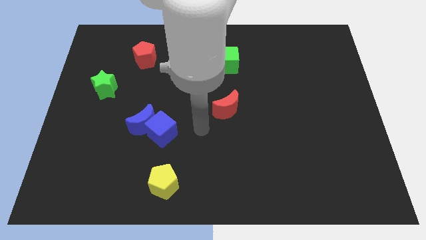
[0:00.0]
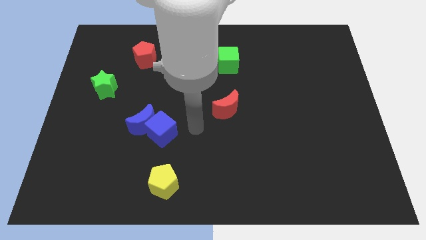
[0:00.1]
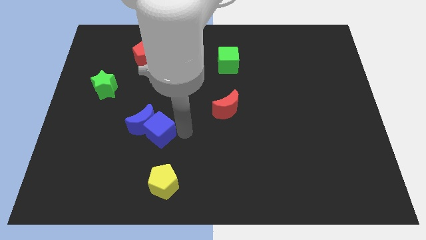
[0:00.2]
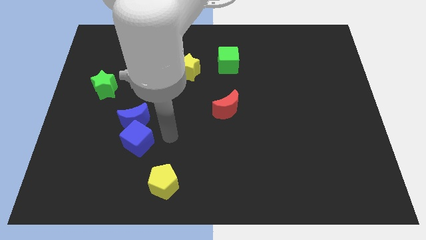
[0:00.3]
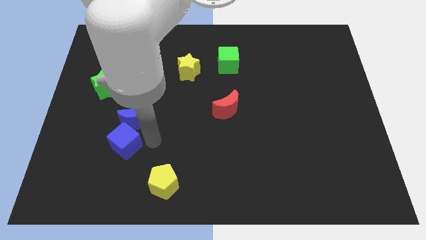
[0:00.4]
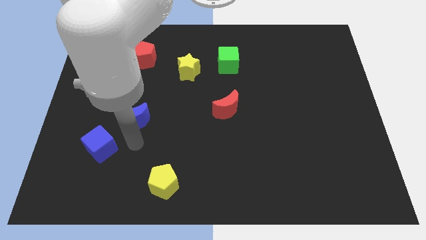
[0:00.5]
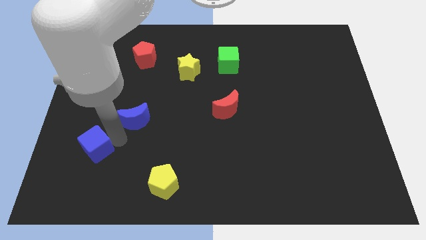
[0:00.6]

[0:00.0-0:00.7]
pull the blue moon apart from the blue cube

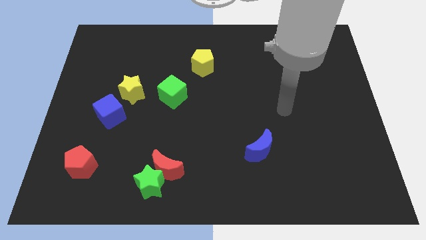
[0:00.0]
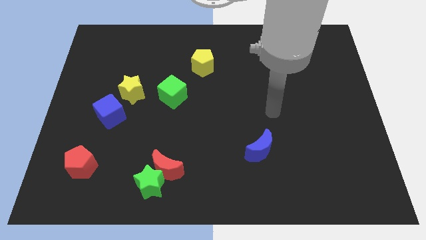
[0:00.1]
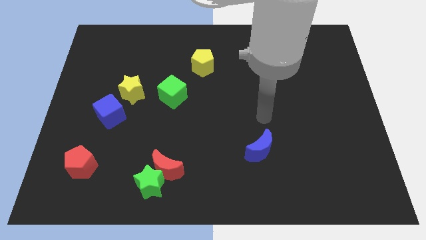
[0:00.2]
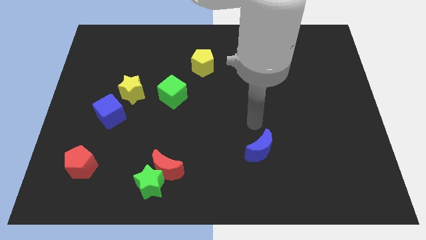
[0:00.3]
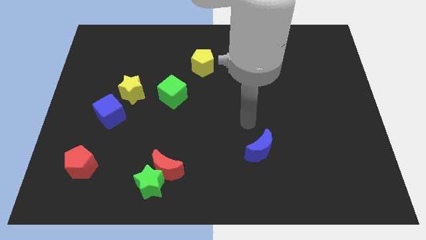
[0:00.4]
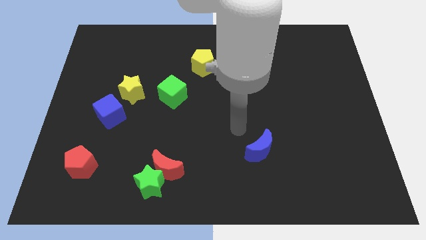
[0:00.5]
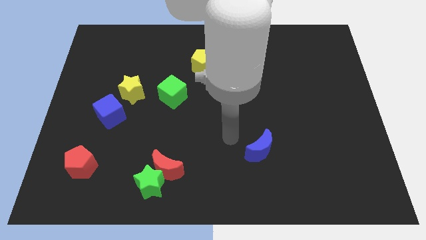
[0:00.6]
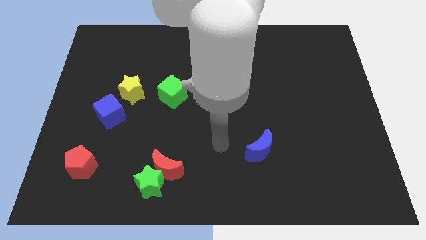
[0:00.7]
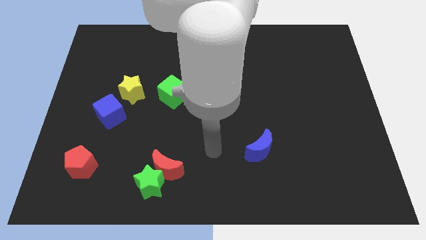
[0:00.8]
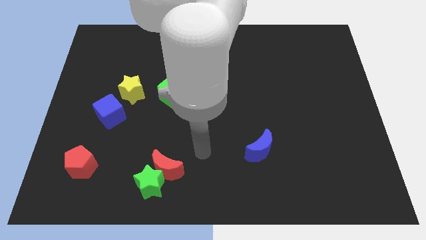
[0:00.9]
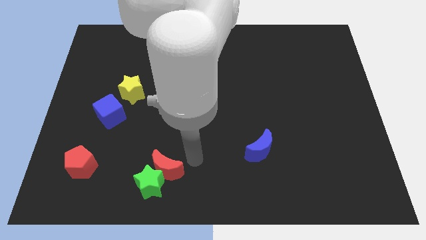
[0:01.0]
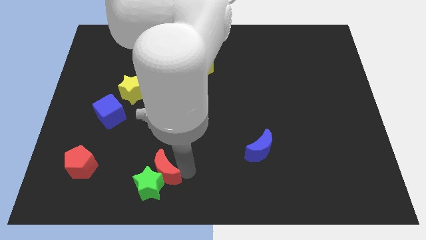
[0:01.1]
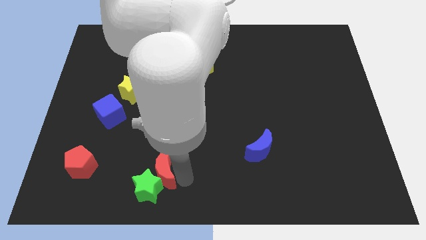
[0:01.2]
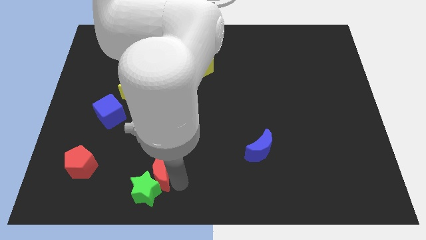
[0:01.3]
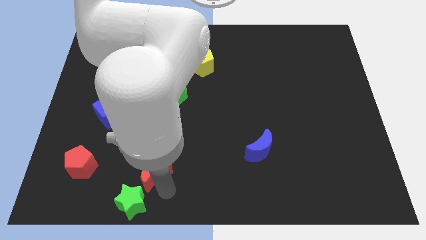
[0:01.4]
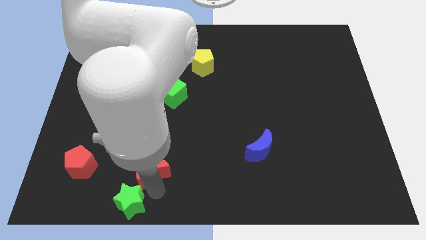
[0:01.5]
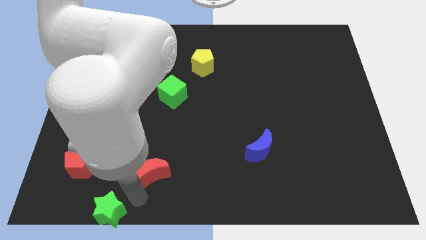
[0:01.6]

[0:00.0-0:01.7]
move the red moon away from the green star

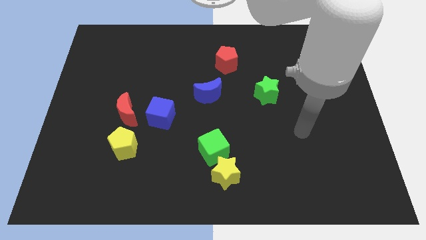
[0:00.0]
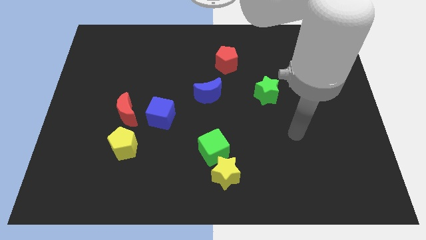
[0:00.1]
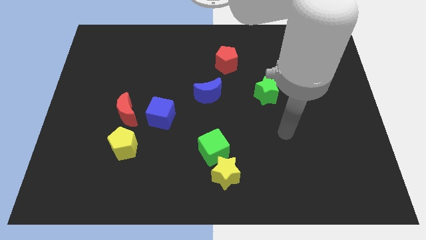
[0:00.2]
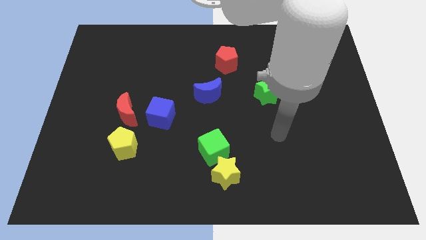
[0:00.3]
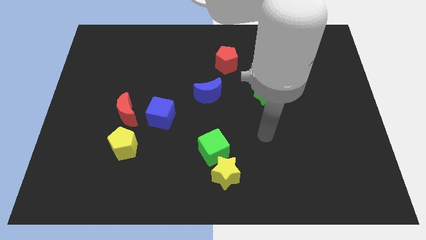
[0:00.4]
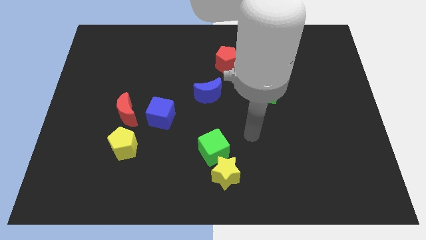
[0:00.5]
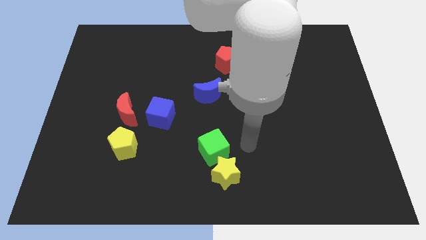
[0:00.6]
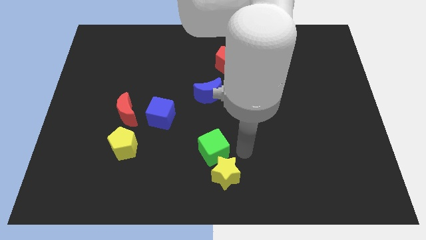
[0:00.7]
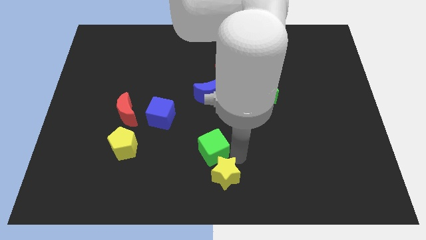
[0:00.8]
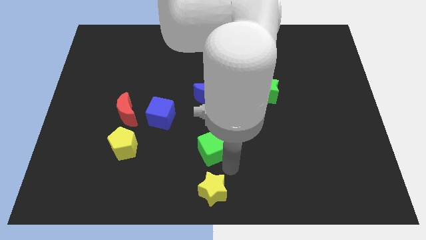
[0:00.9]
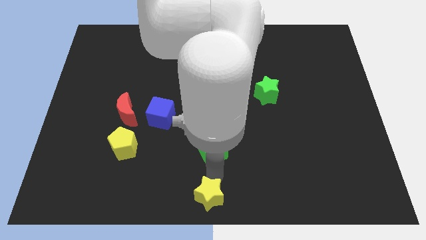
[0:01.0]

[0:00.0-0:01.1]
pull the green cube apart from the yellow star

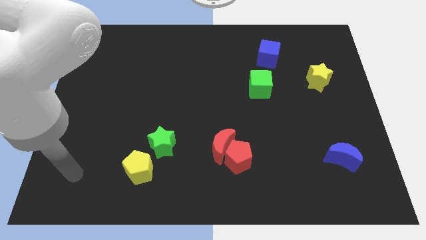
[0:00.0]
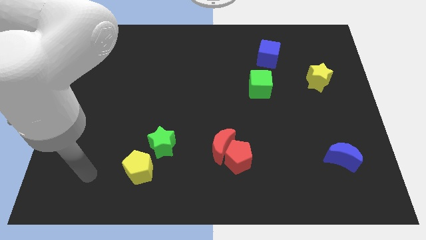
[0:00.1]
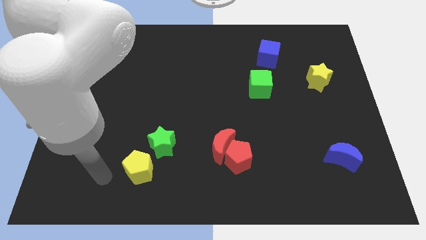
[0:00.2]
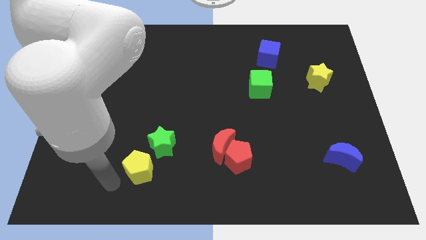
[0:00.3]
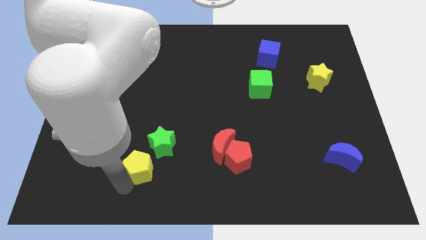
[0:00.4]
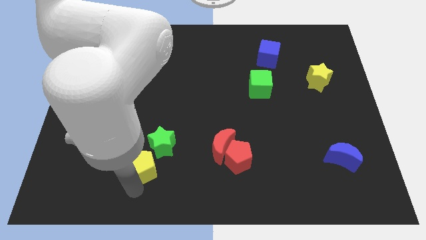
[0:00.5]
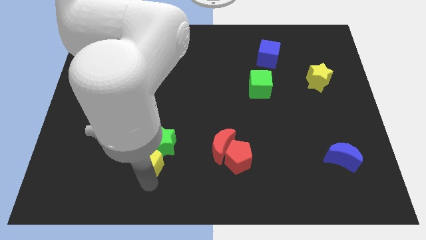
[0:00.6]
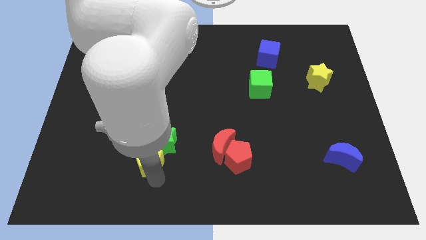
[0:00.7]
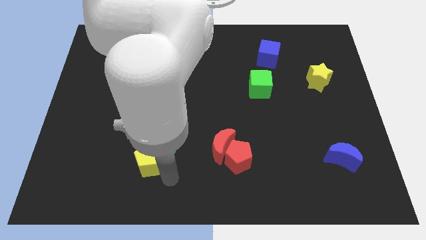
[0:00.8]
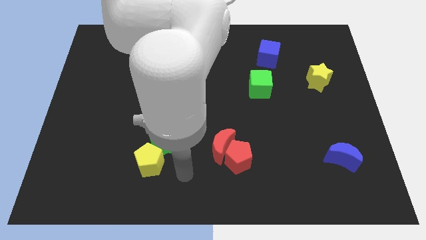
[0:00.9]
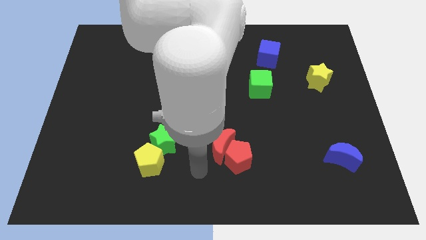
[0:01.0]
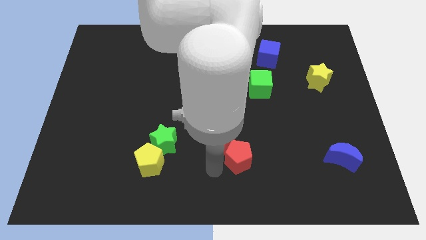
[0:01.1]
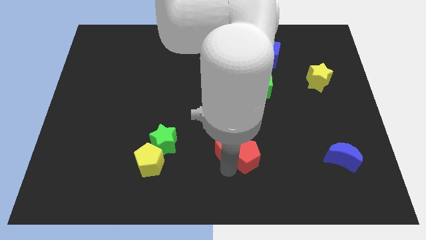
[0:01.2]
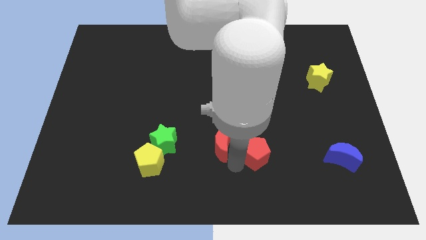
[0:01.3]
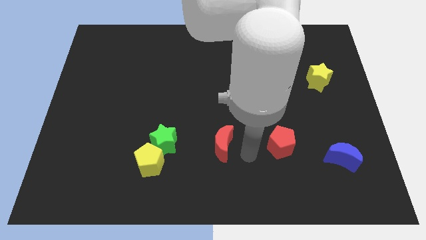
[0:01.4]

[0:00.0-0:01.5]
separate the red moon from the red pentagon

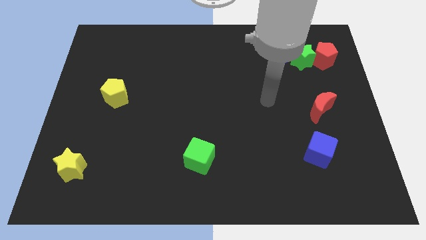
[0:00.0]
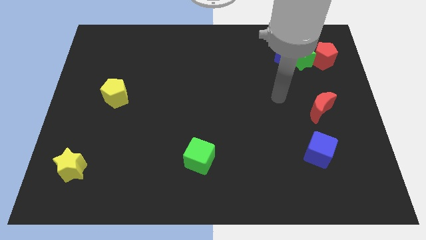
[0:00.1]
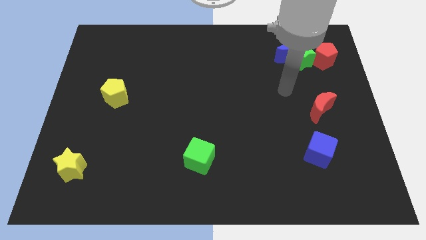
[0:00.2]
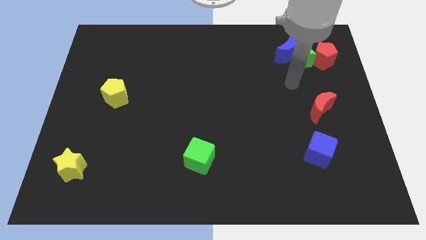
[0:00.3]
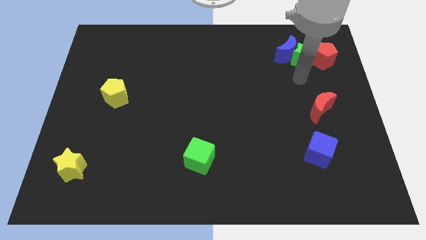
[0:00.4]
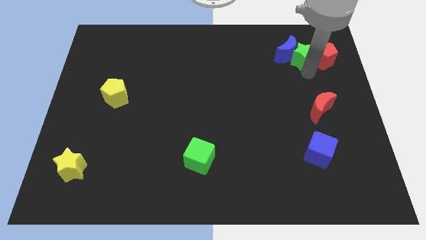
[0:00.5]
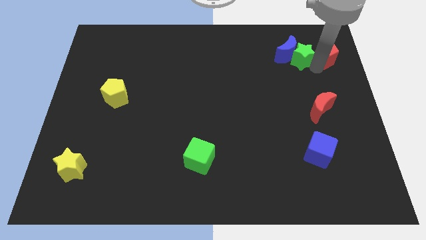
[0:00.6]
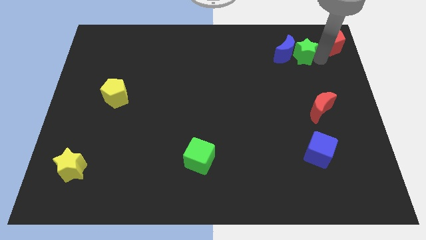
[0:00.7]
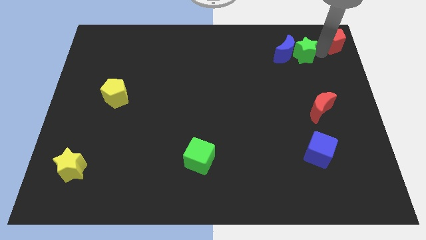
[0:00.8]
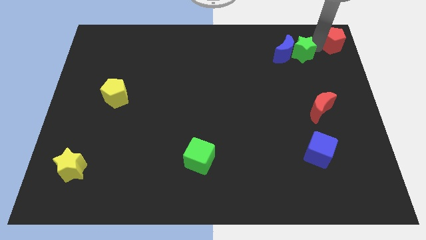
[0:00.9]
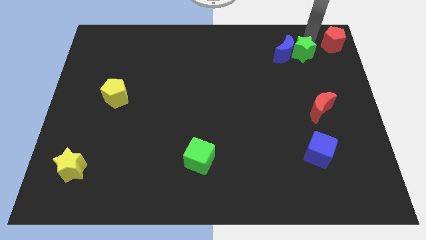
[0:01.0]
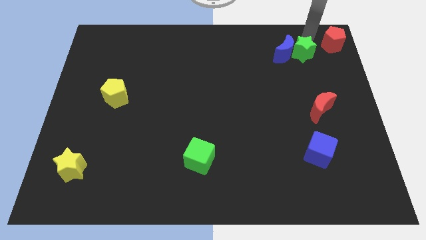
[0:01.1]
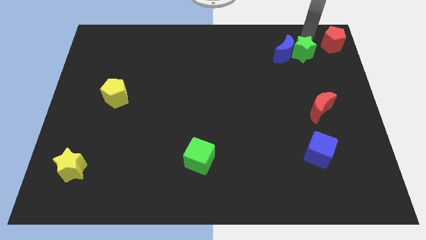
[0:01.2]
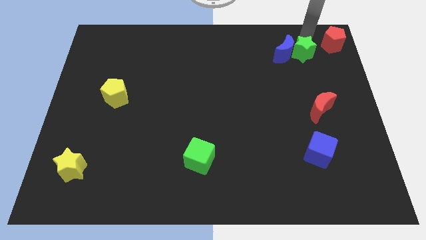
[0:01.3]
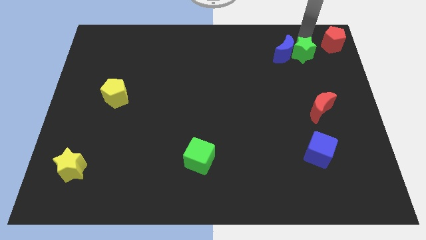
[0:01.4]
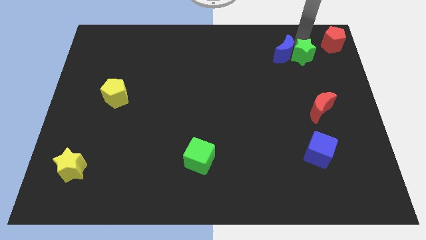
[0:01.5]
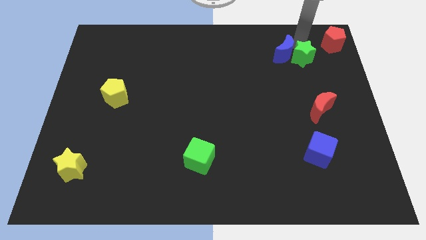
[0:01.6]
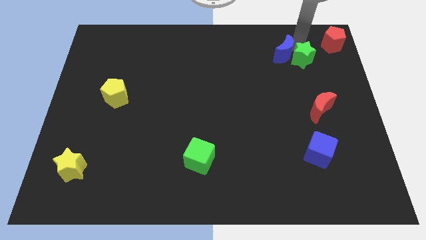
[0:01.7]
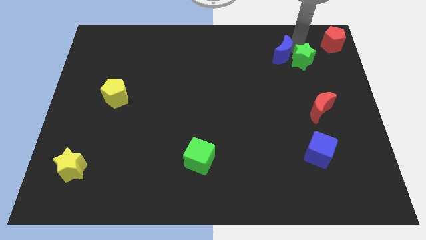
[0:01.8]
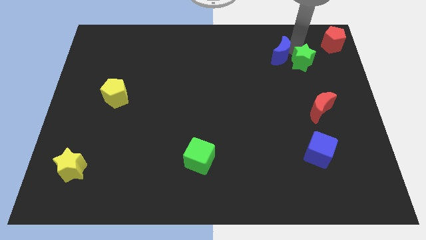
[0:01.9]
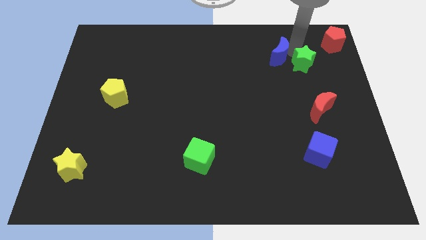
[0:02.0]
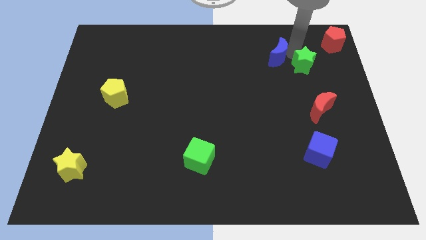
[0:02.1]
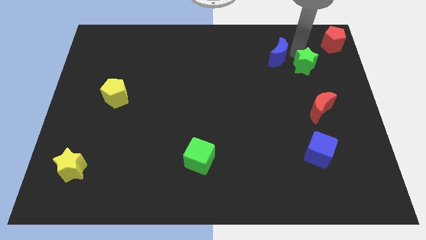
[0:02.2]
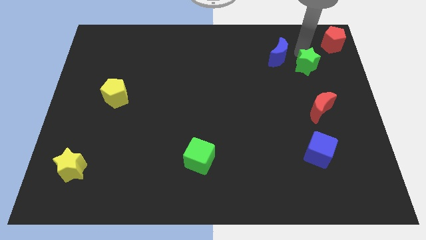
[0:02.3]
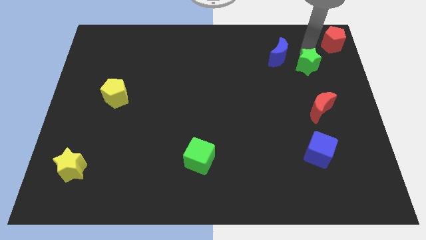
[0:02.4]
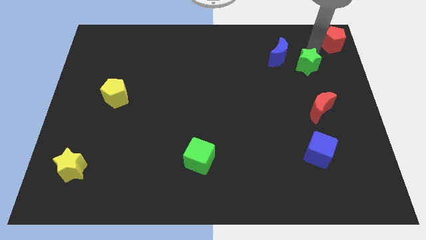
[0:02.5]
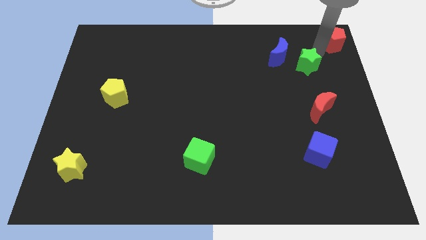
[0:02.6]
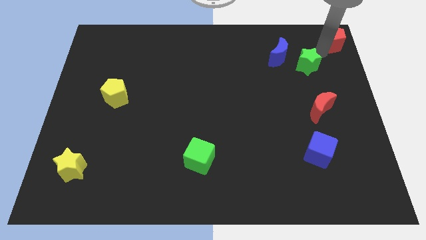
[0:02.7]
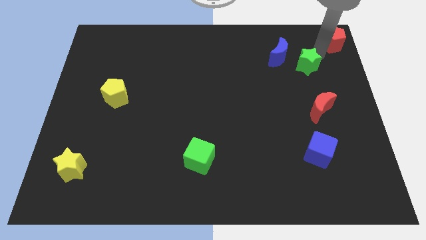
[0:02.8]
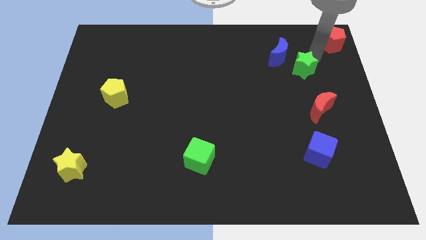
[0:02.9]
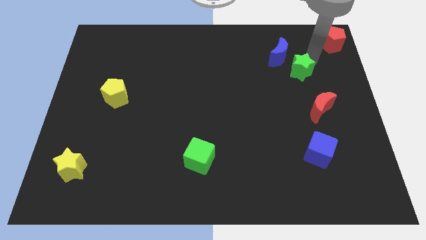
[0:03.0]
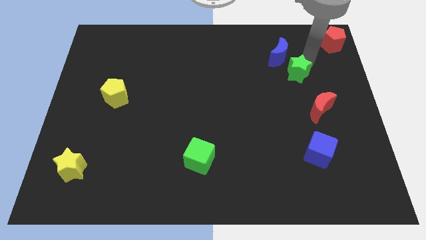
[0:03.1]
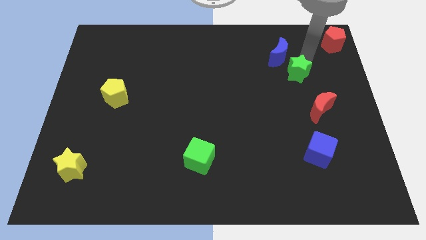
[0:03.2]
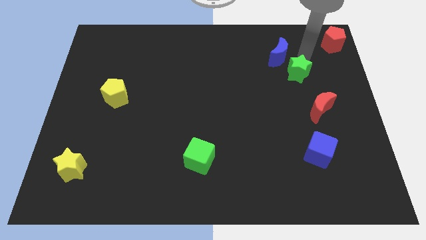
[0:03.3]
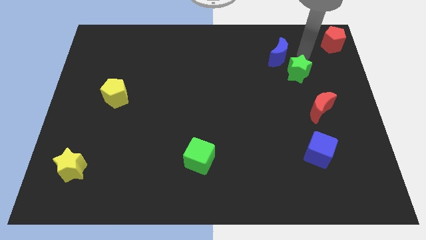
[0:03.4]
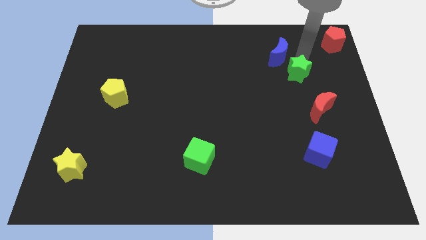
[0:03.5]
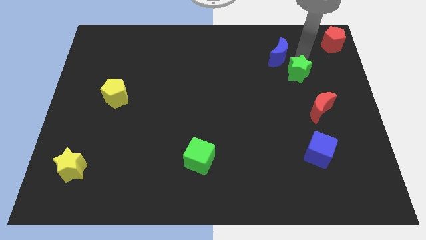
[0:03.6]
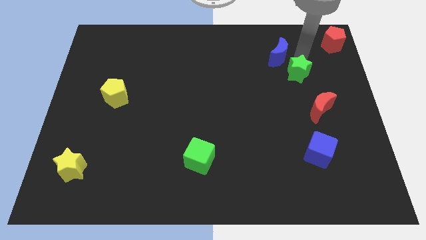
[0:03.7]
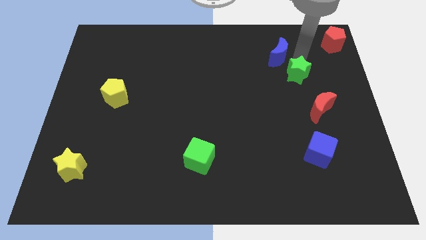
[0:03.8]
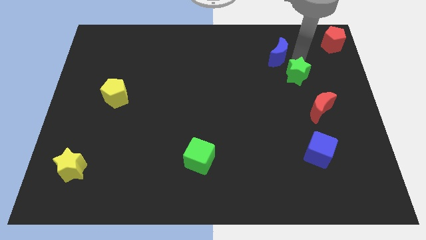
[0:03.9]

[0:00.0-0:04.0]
move the green star away from the blue moon and red pentagon

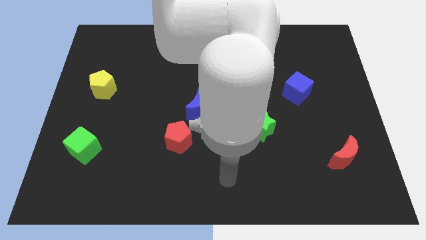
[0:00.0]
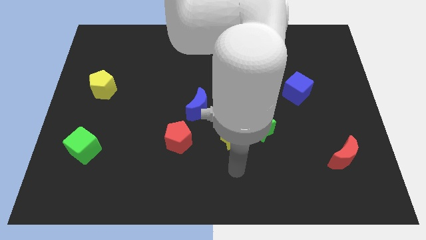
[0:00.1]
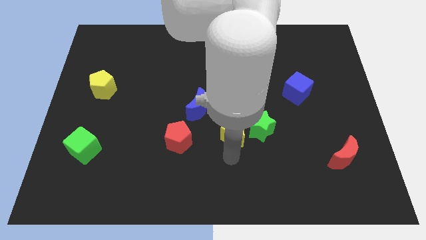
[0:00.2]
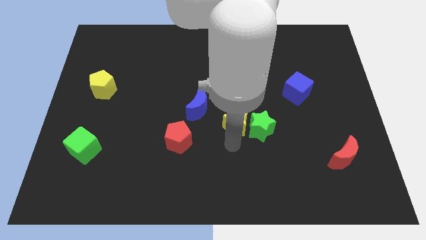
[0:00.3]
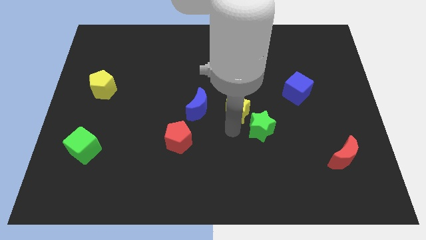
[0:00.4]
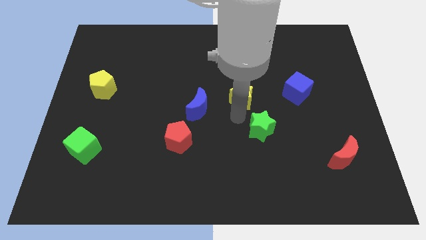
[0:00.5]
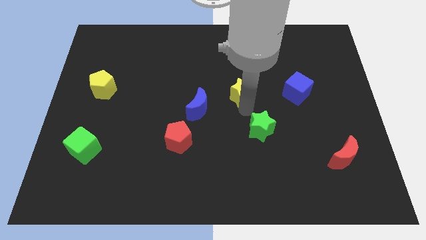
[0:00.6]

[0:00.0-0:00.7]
pull the green star apart from the yellow star
